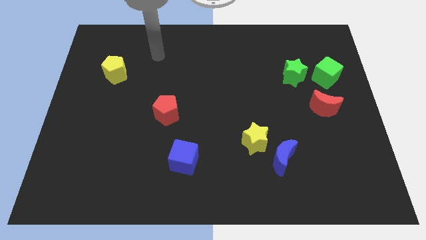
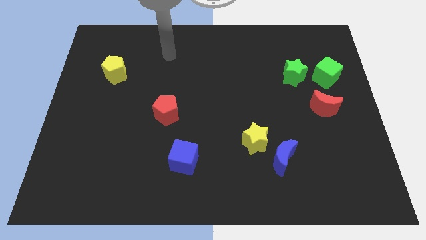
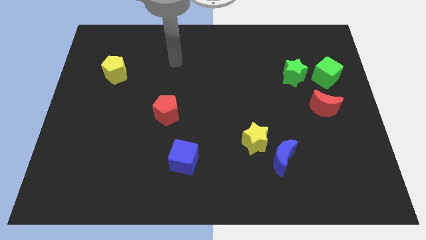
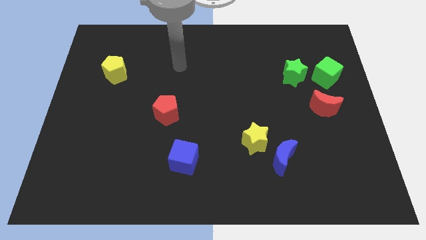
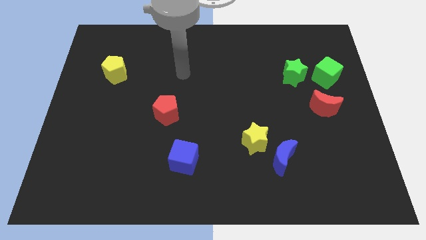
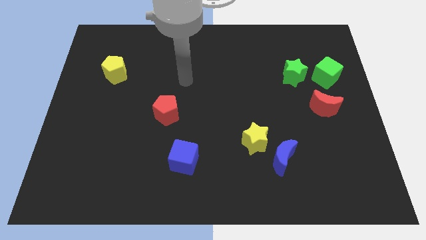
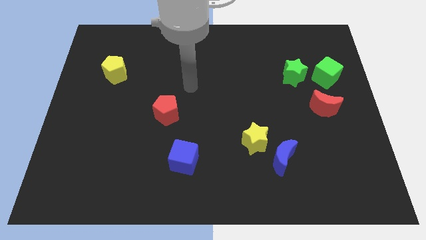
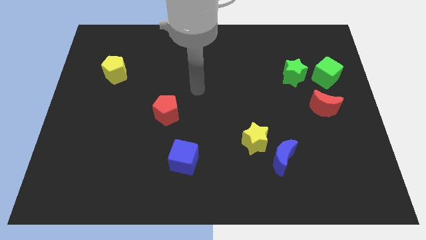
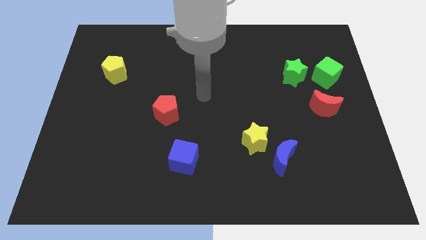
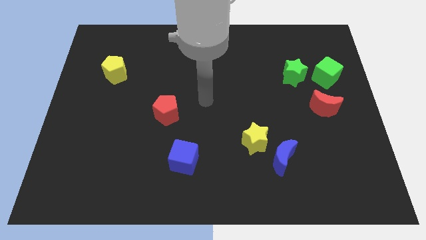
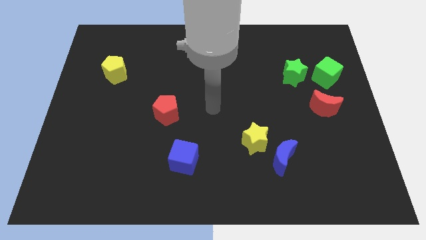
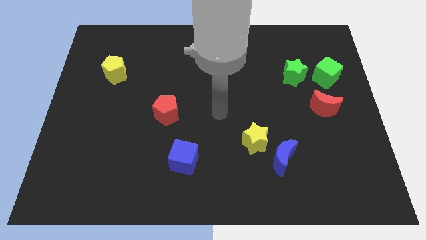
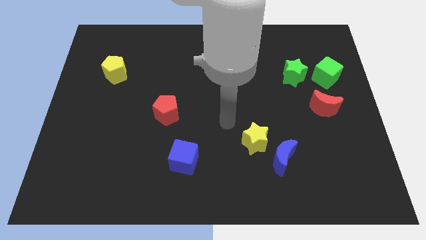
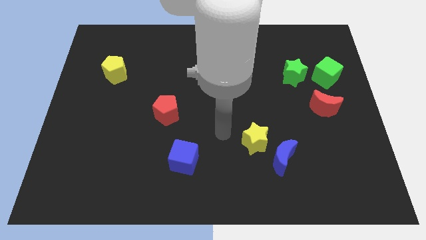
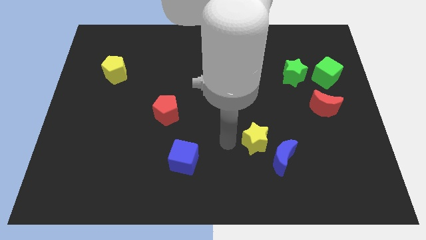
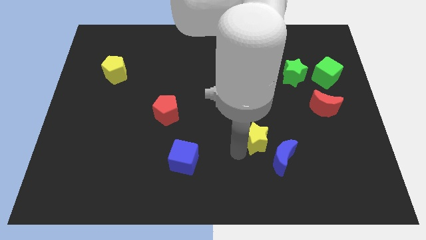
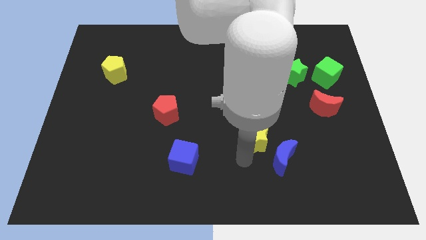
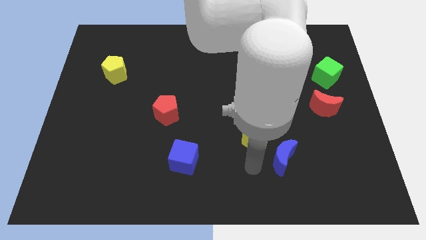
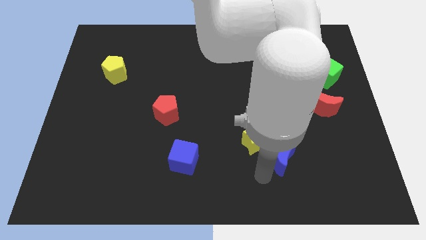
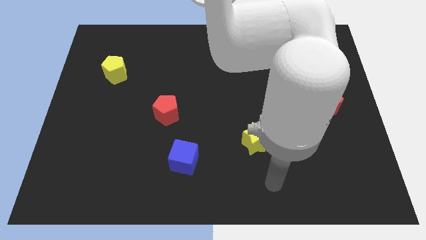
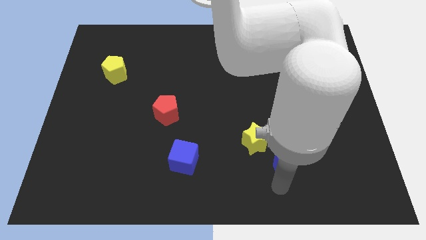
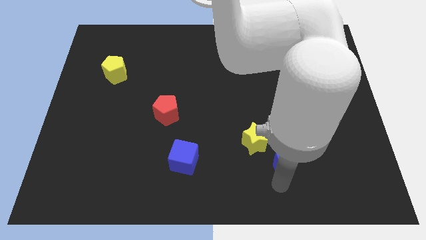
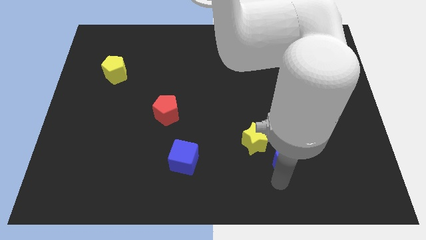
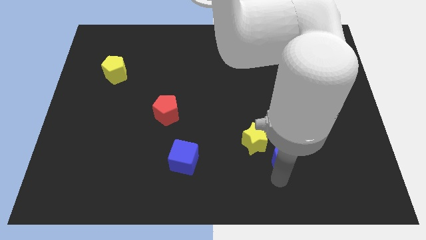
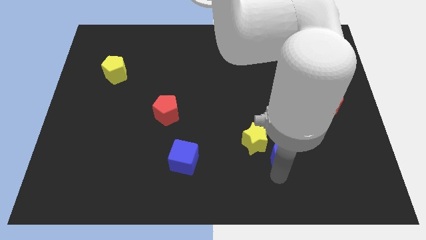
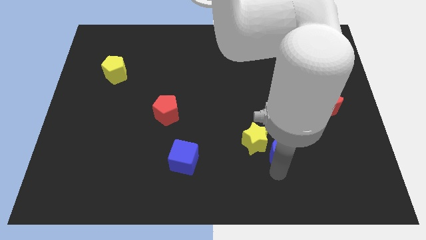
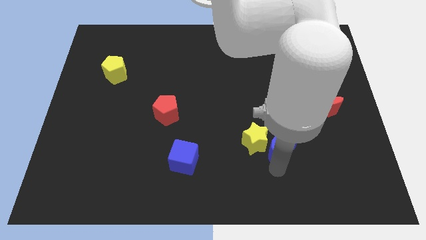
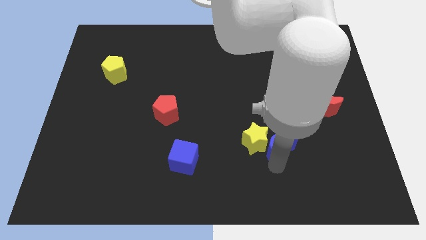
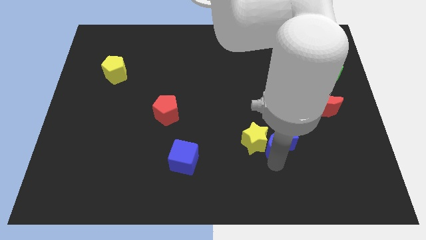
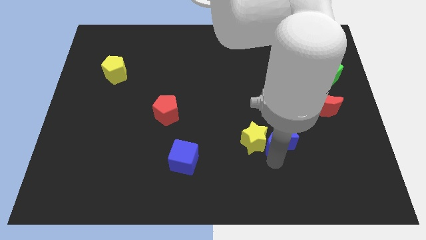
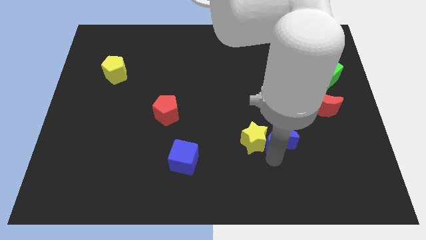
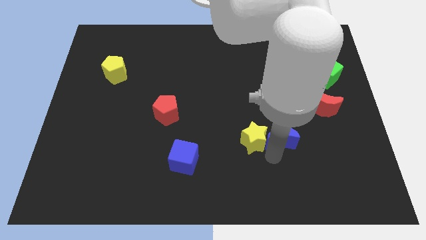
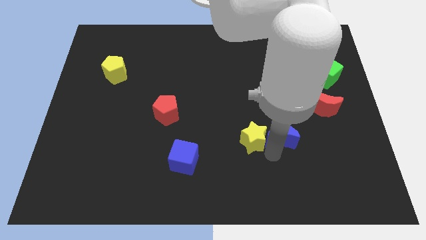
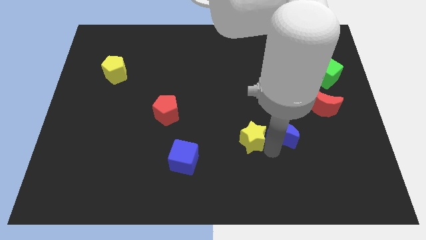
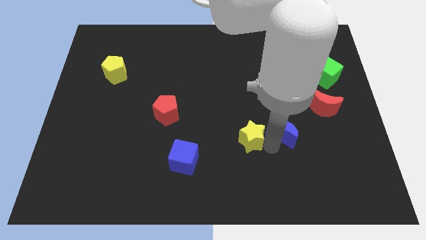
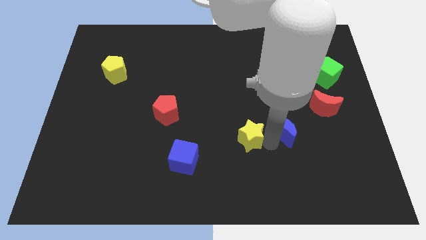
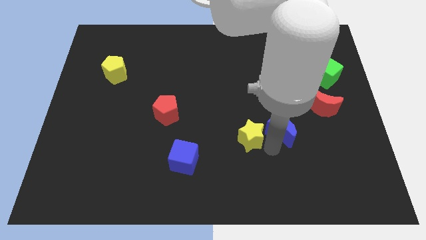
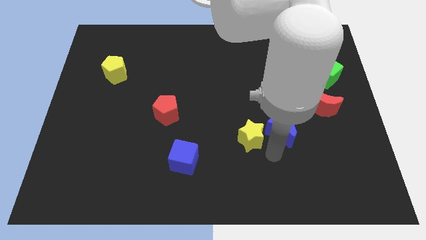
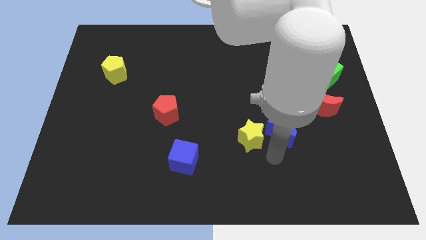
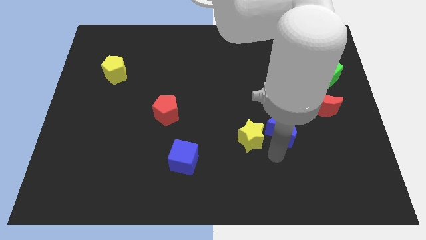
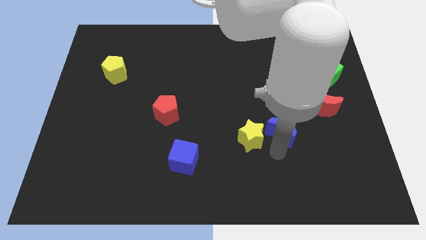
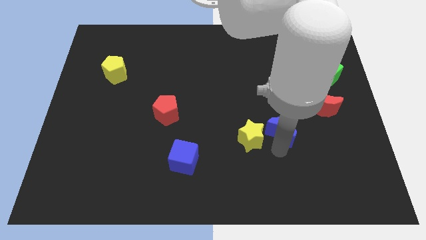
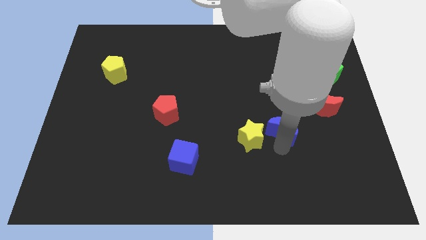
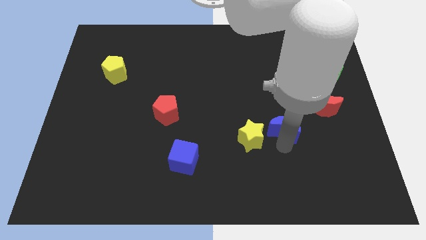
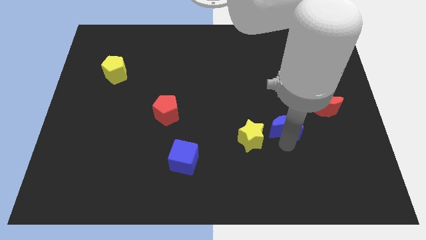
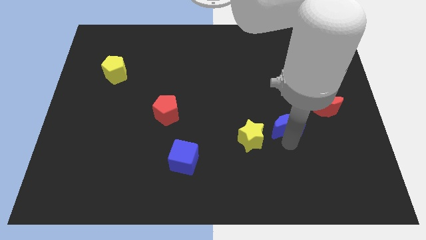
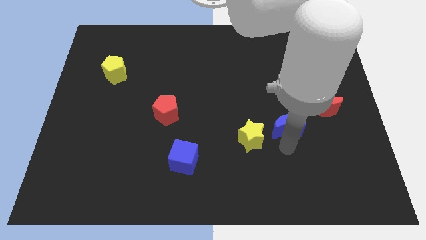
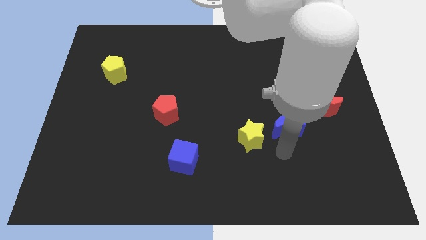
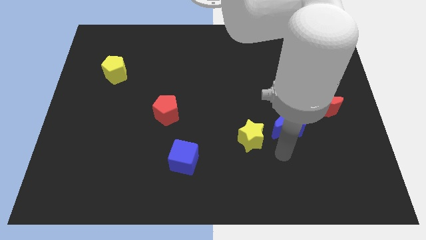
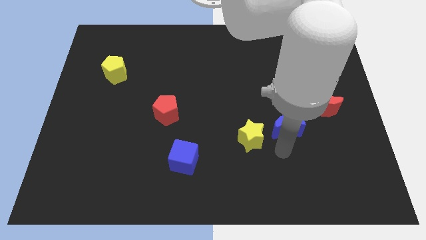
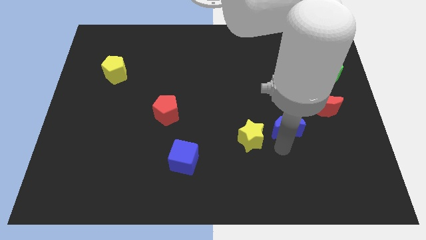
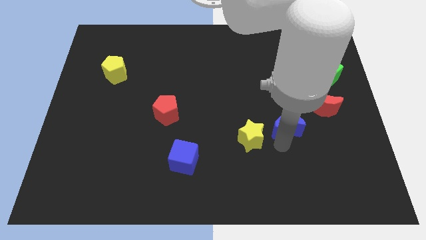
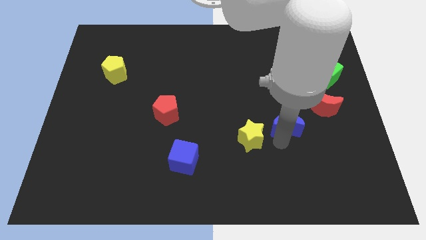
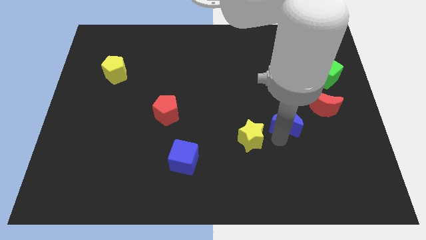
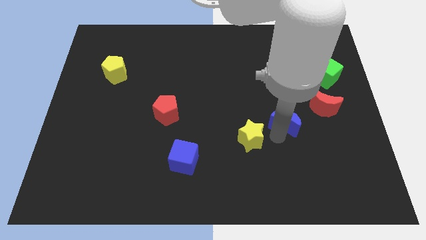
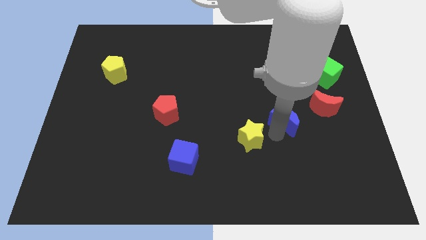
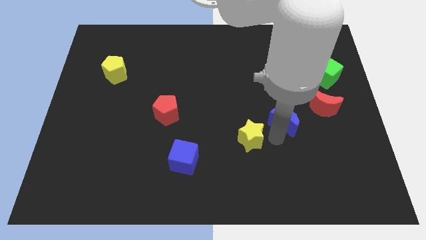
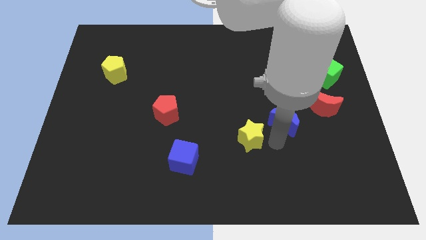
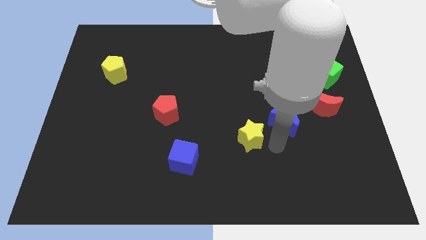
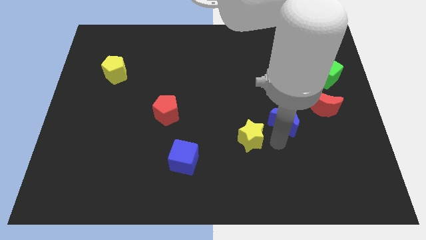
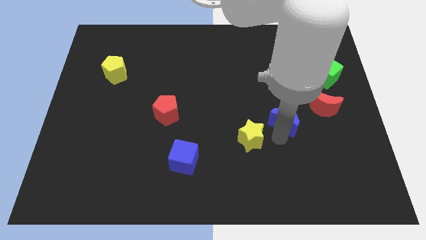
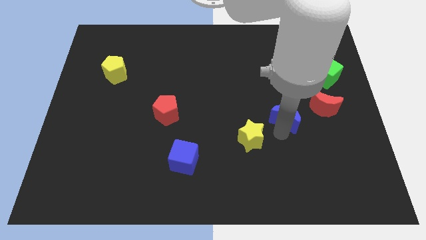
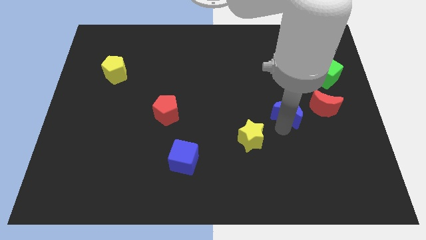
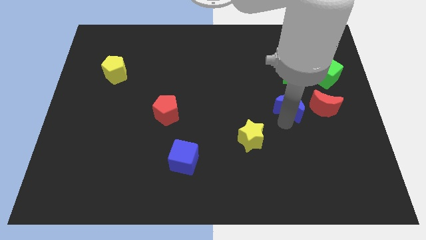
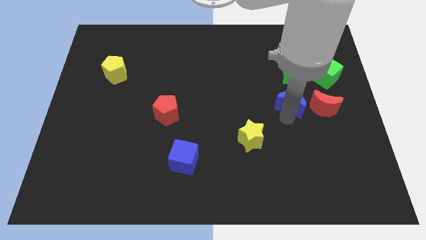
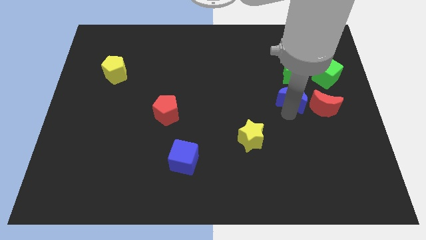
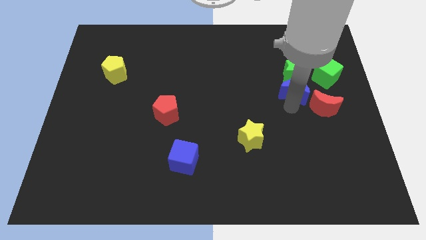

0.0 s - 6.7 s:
move the blue moon to the green star

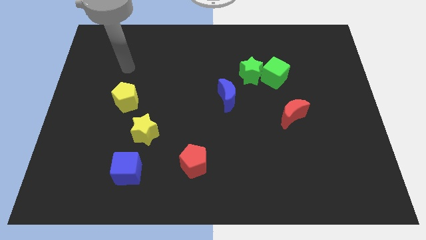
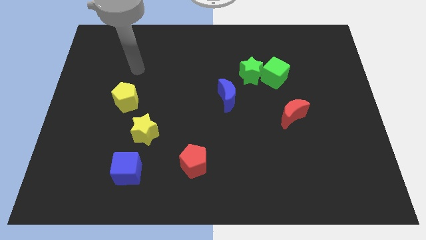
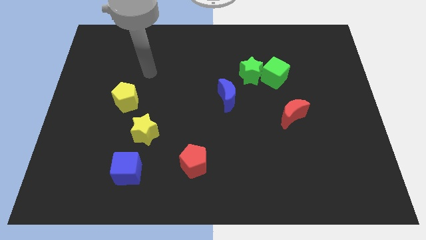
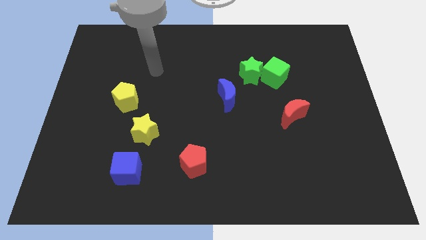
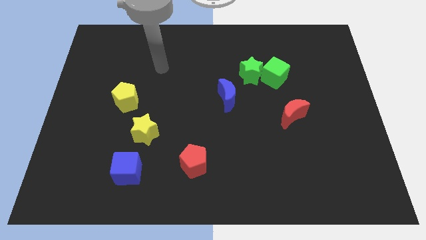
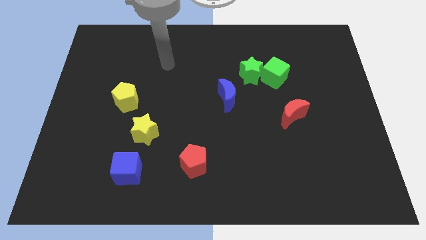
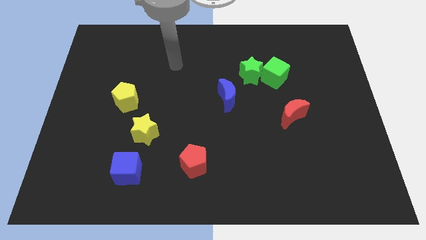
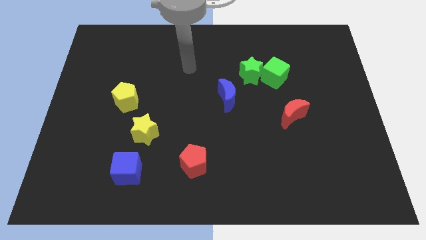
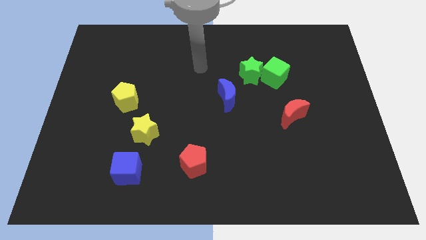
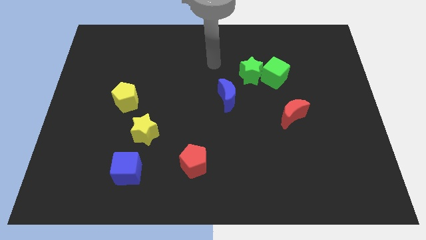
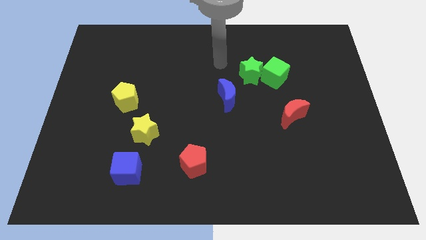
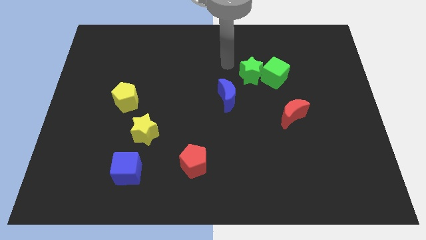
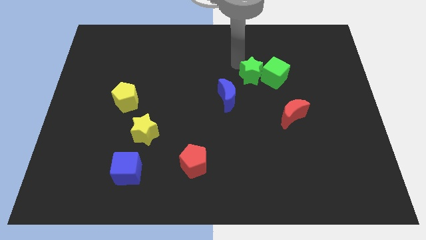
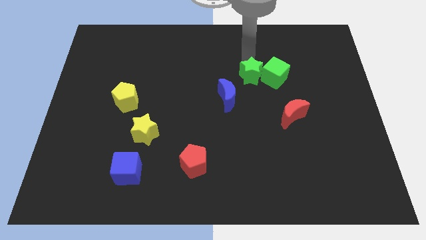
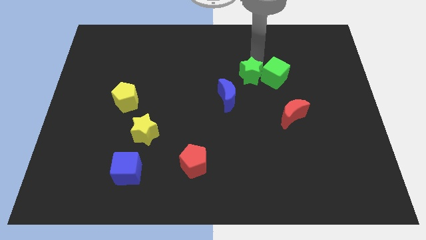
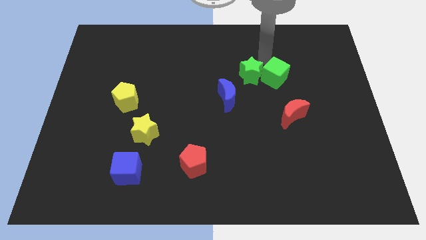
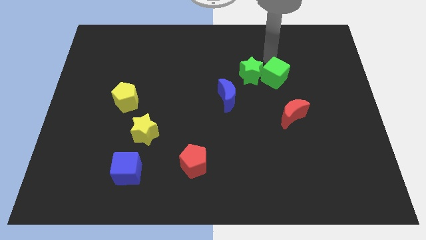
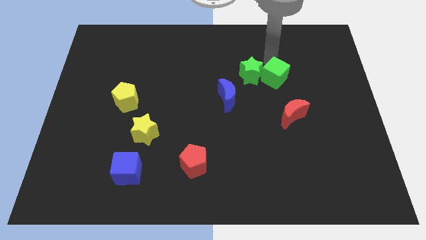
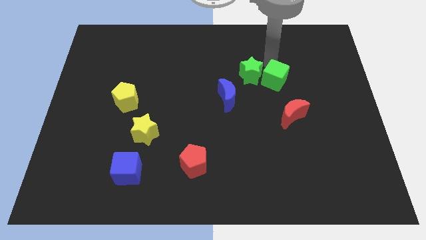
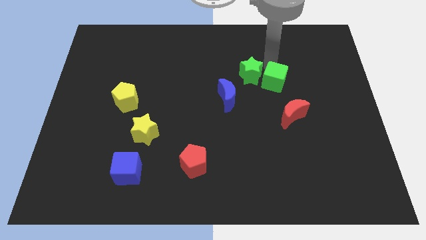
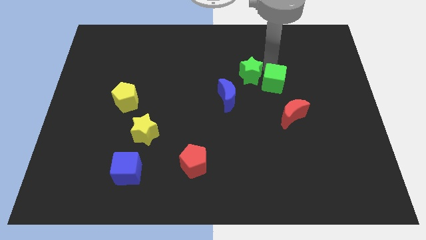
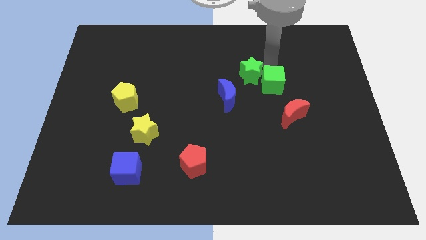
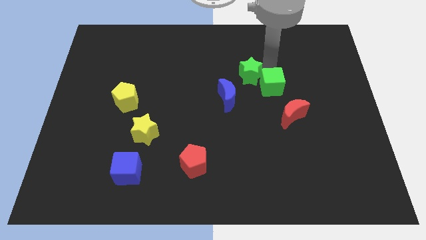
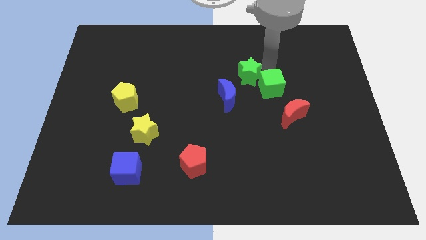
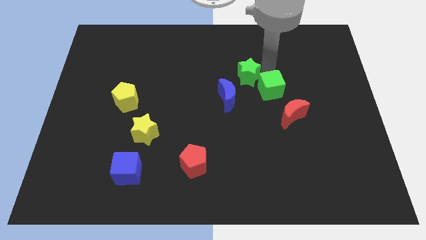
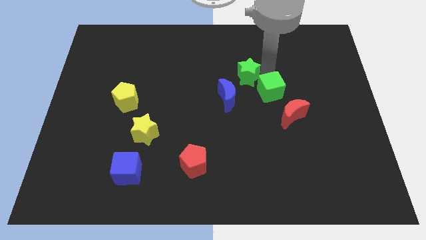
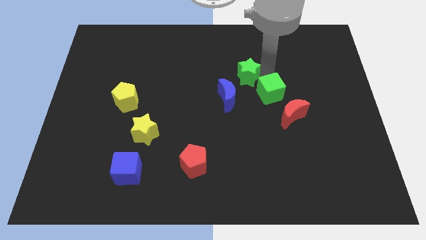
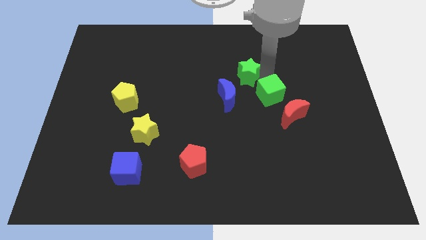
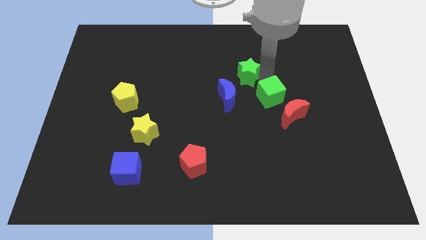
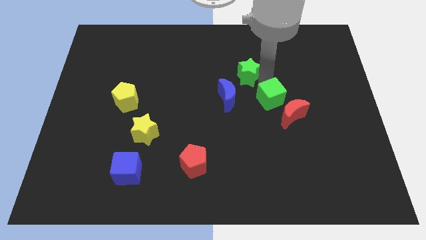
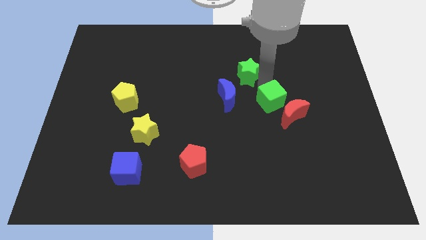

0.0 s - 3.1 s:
push the green cube towards the red moon
